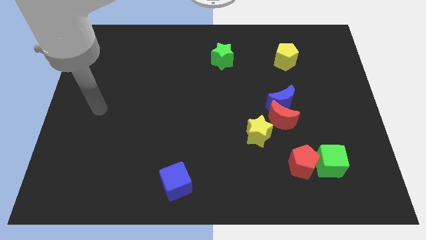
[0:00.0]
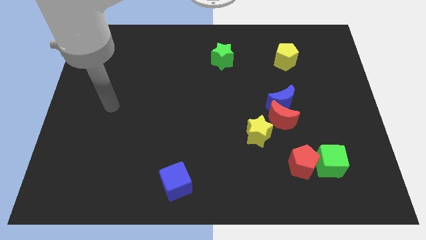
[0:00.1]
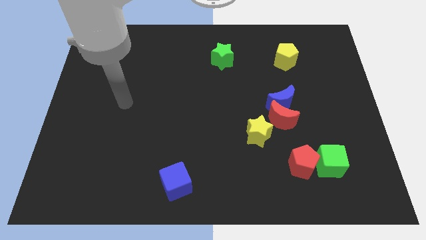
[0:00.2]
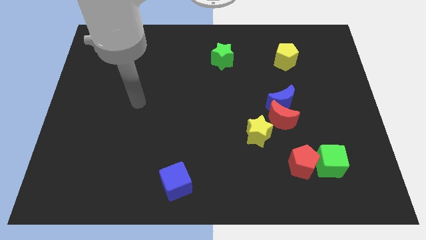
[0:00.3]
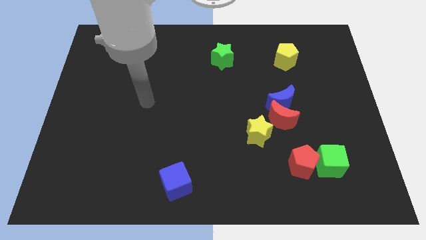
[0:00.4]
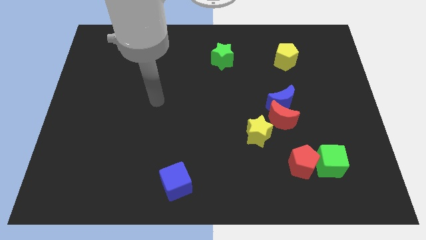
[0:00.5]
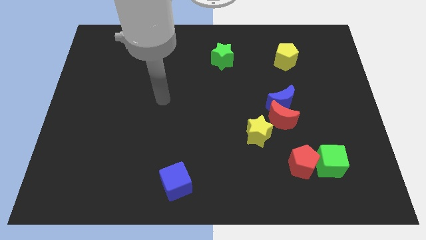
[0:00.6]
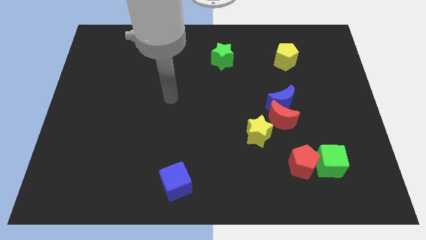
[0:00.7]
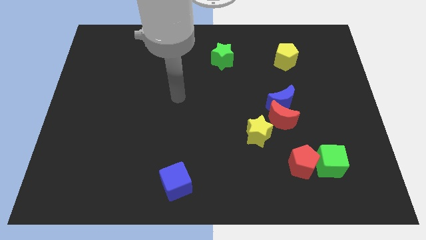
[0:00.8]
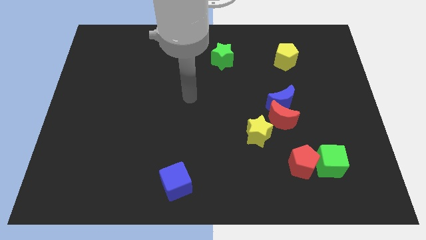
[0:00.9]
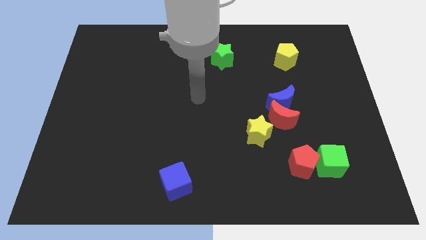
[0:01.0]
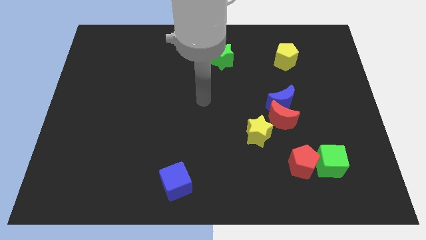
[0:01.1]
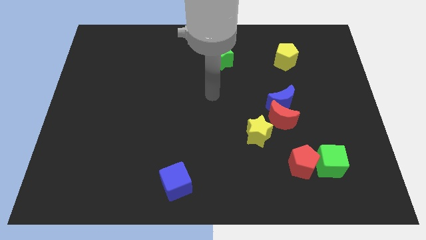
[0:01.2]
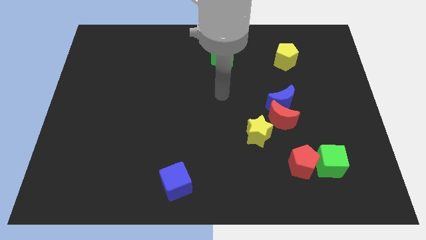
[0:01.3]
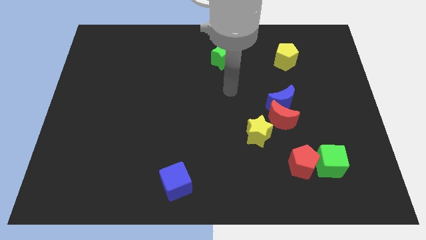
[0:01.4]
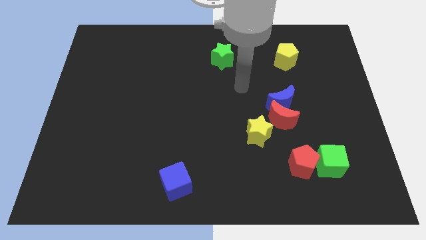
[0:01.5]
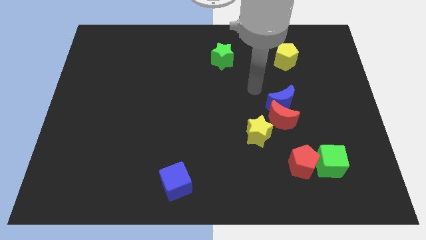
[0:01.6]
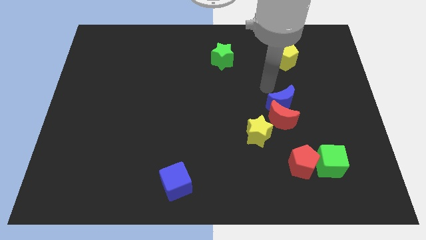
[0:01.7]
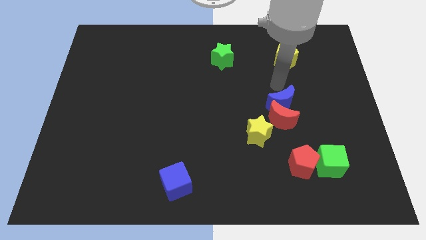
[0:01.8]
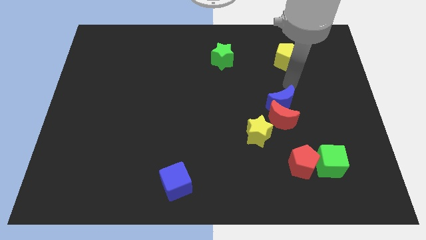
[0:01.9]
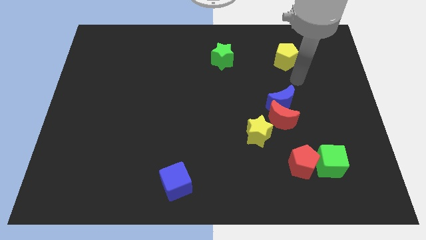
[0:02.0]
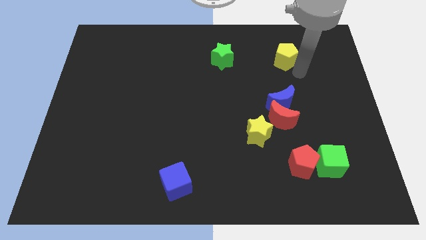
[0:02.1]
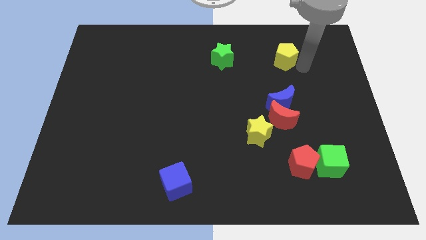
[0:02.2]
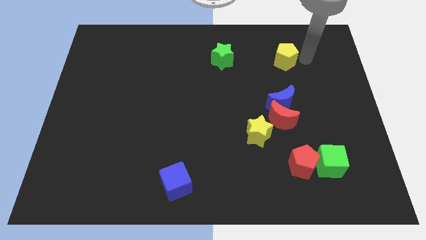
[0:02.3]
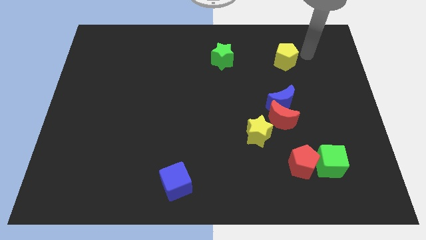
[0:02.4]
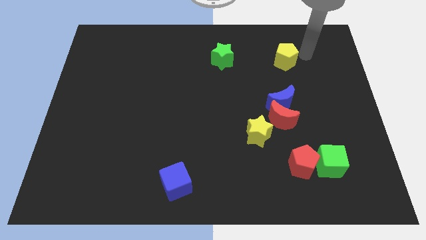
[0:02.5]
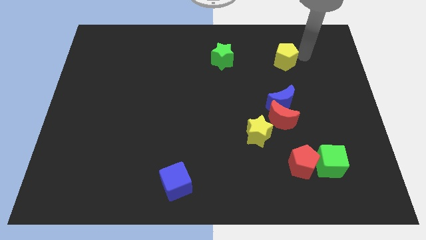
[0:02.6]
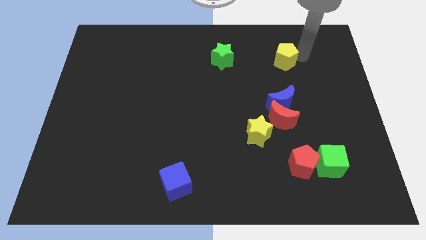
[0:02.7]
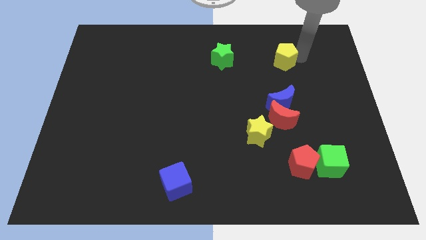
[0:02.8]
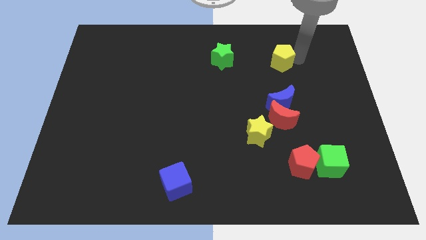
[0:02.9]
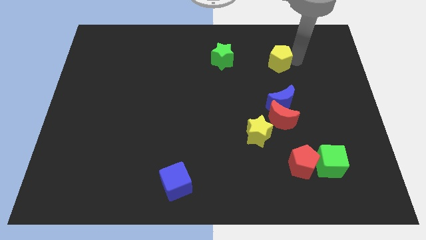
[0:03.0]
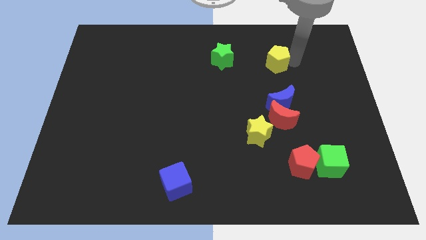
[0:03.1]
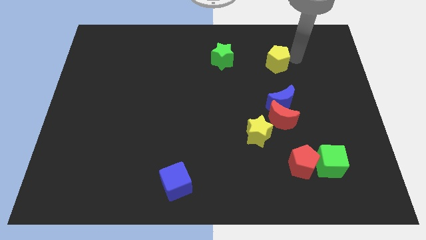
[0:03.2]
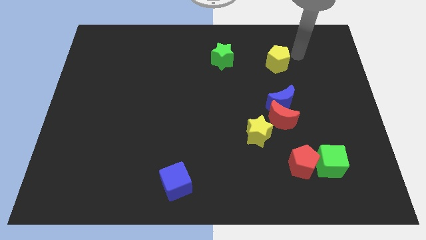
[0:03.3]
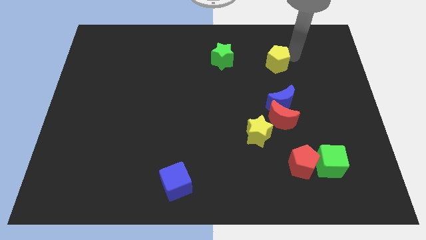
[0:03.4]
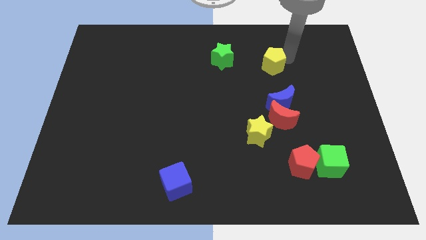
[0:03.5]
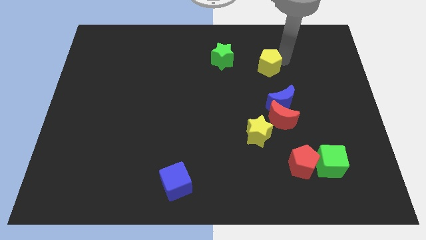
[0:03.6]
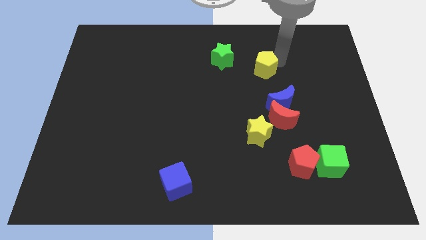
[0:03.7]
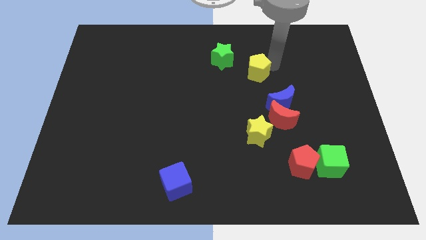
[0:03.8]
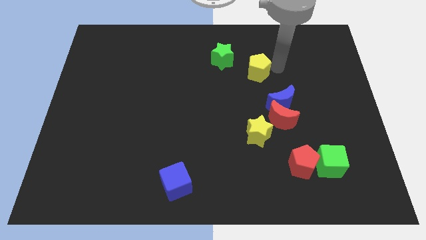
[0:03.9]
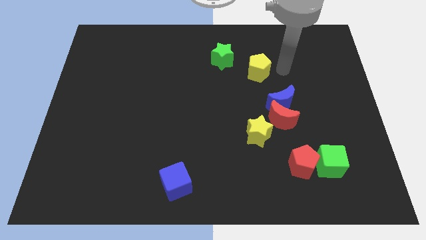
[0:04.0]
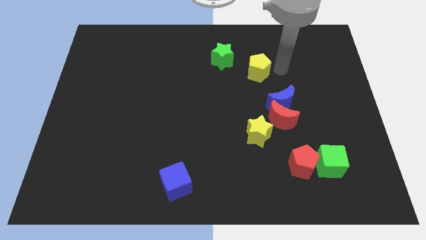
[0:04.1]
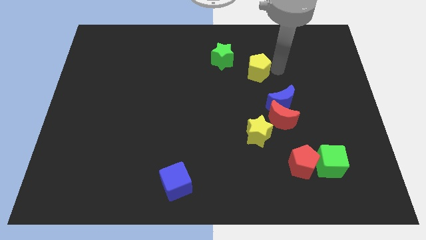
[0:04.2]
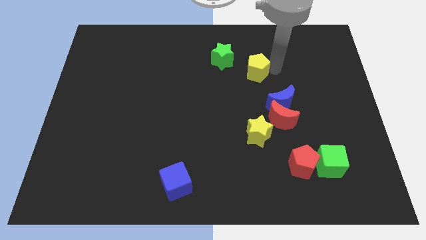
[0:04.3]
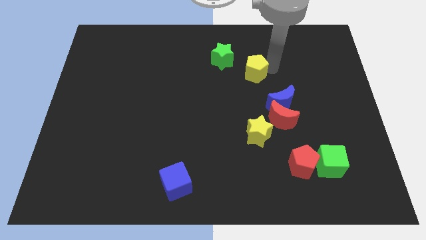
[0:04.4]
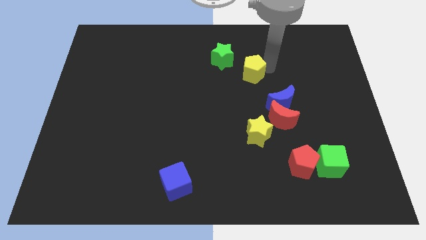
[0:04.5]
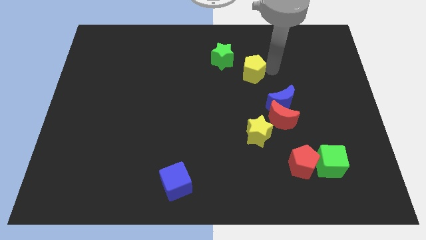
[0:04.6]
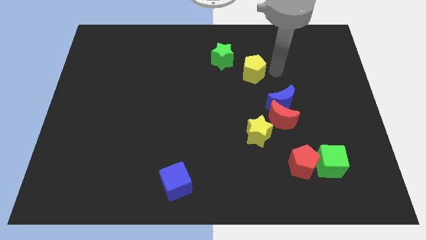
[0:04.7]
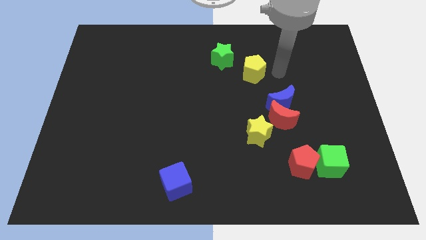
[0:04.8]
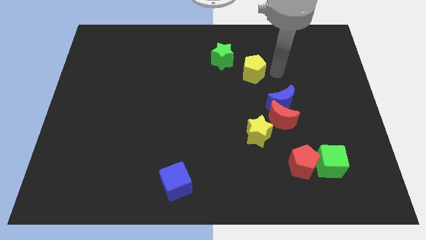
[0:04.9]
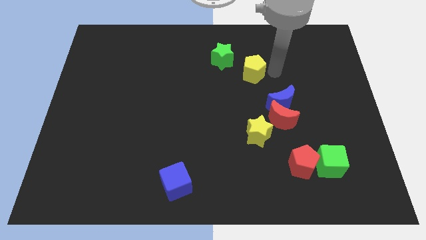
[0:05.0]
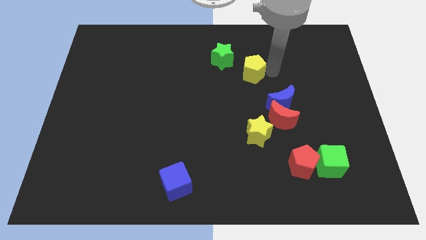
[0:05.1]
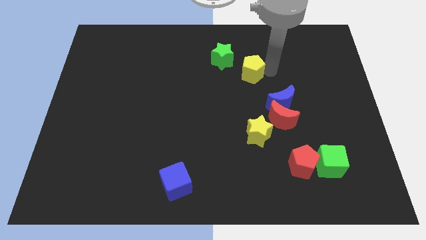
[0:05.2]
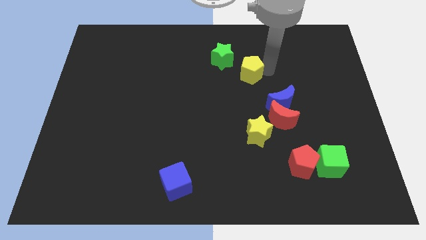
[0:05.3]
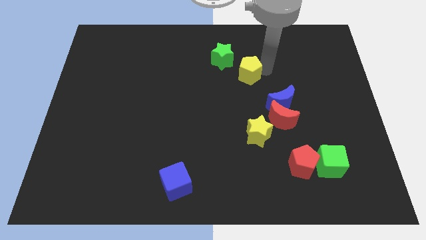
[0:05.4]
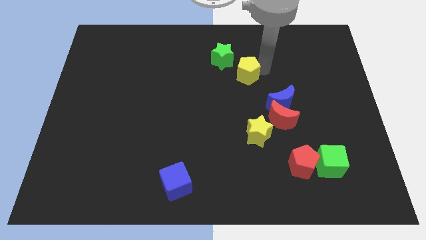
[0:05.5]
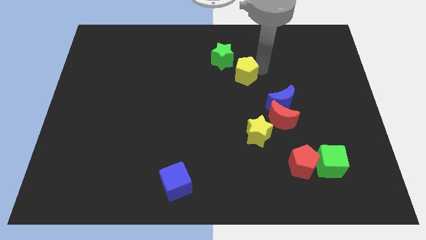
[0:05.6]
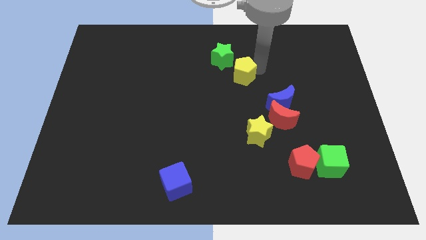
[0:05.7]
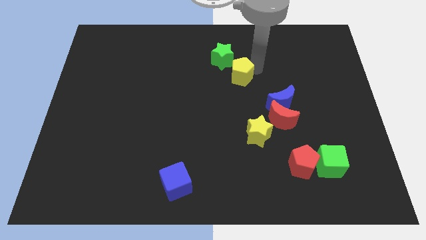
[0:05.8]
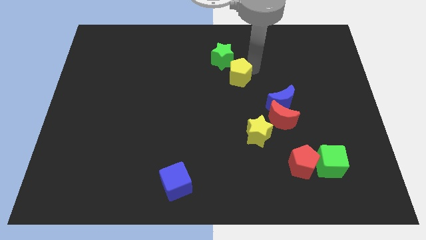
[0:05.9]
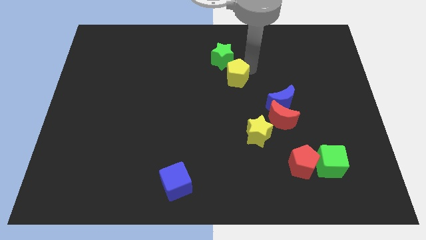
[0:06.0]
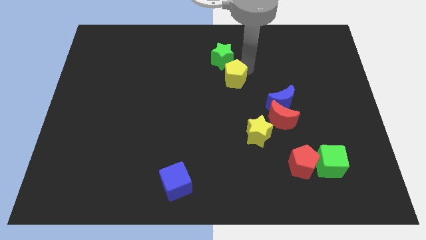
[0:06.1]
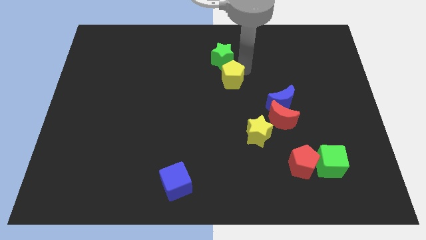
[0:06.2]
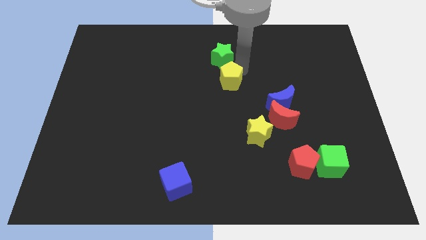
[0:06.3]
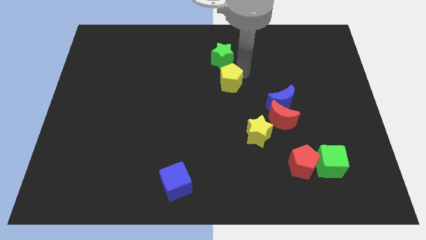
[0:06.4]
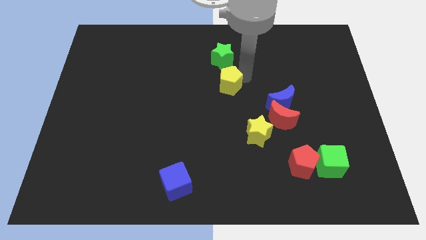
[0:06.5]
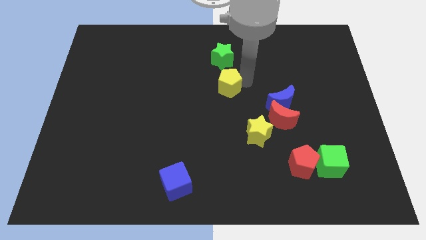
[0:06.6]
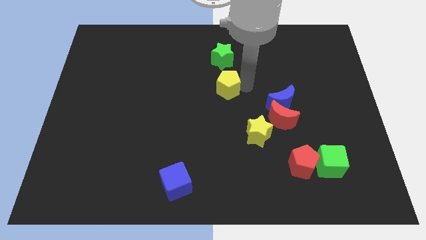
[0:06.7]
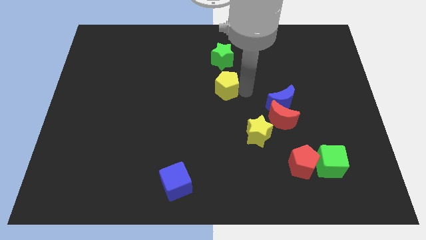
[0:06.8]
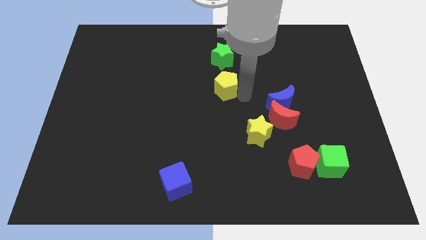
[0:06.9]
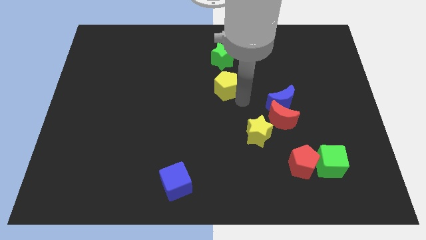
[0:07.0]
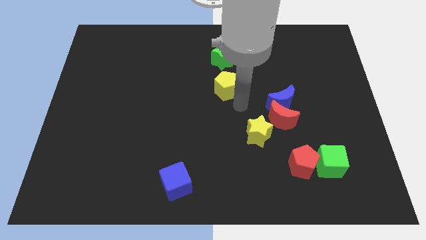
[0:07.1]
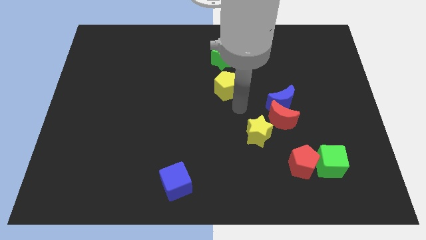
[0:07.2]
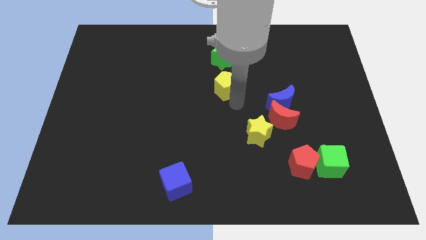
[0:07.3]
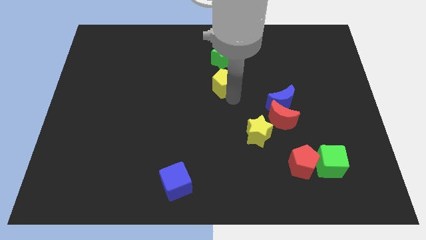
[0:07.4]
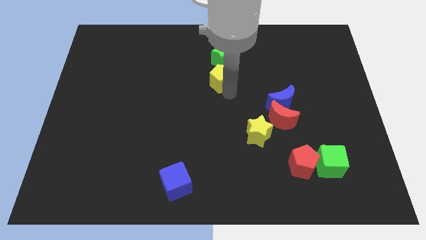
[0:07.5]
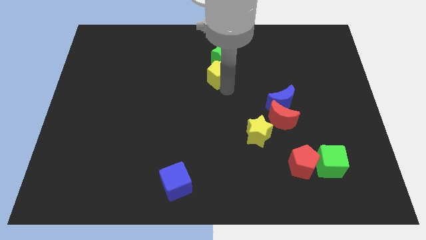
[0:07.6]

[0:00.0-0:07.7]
push the yellow pentagon diagonally down and to the left of the green star

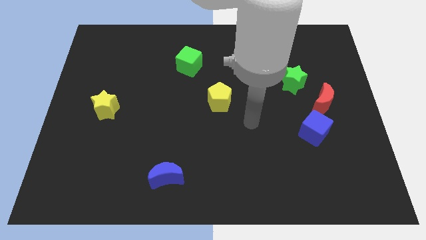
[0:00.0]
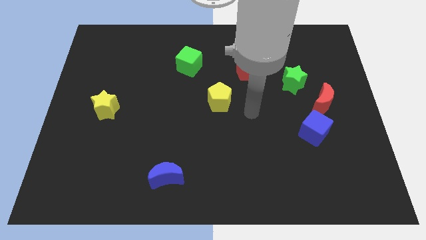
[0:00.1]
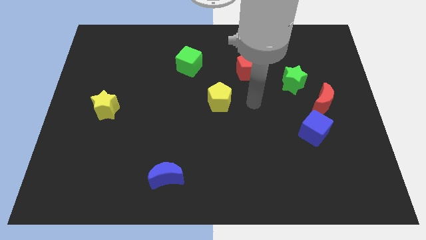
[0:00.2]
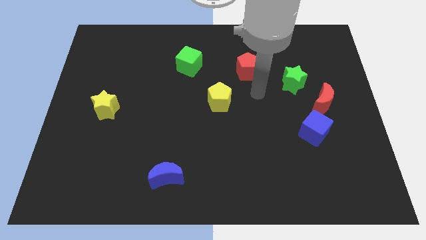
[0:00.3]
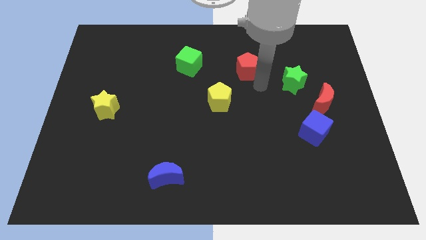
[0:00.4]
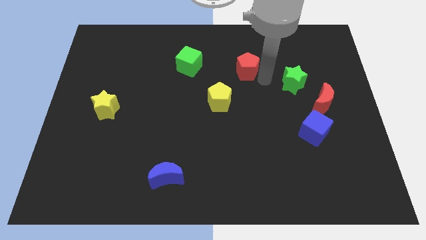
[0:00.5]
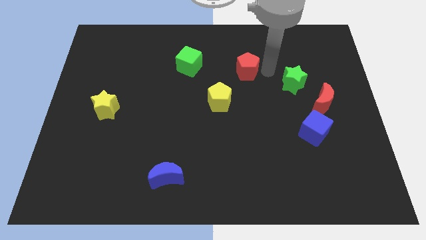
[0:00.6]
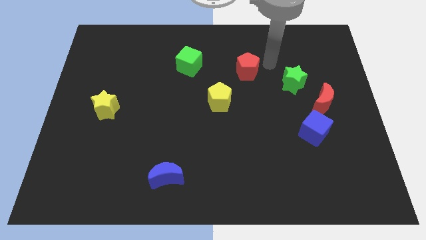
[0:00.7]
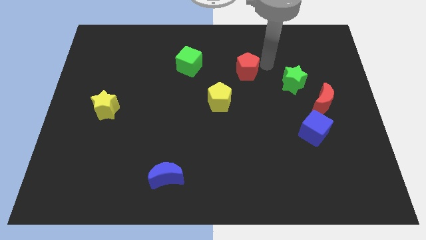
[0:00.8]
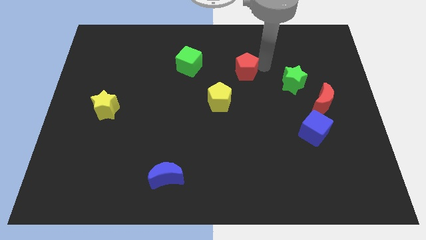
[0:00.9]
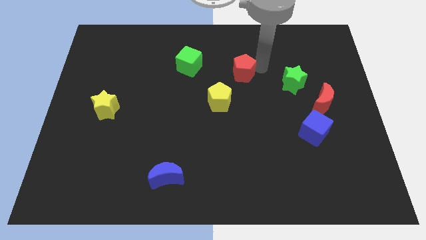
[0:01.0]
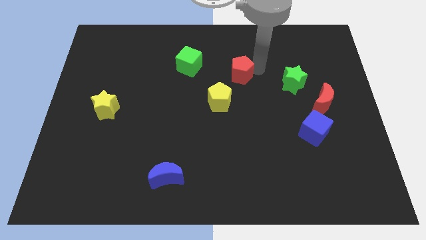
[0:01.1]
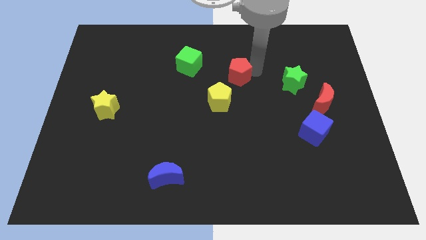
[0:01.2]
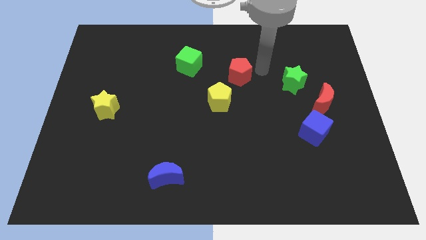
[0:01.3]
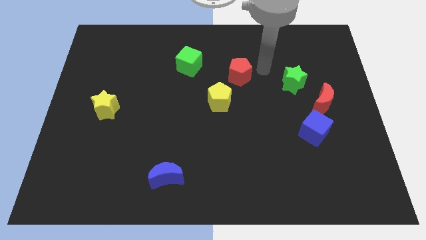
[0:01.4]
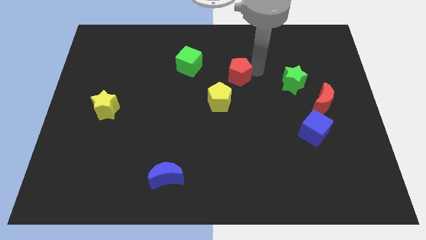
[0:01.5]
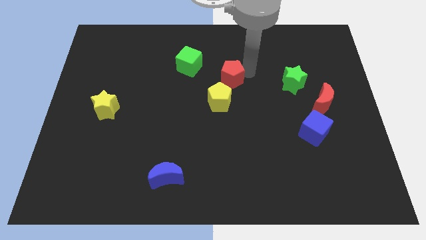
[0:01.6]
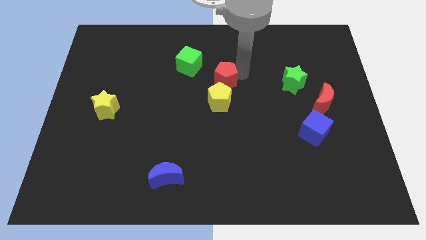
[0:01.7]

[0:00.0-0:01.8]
put the red pentagon diagonally down and to the right of the green cube
